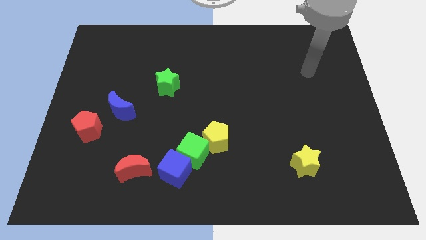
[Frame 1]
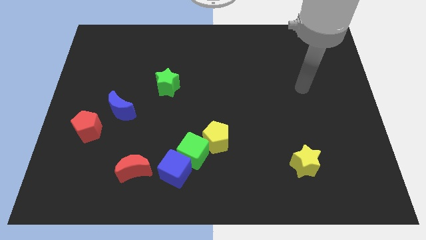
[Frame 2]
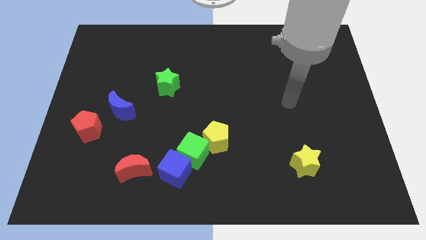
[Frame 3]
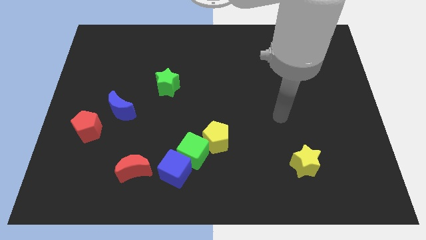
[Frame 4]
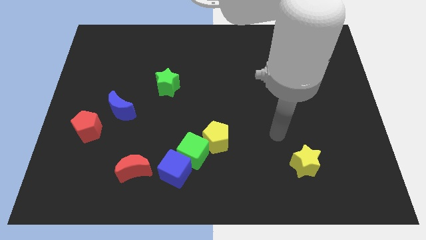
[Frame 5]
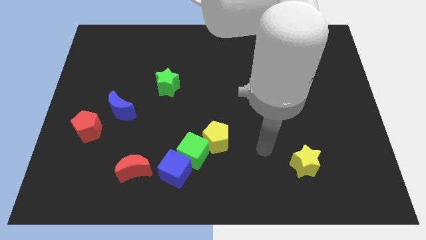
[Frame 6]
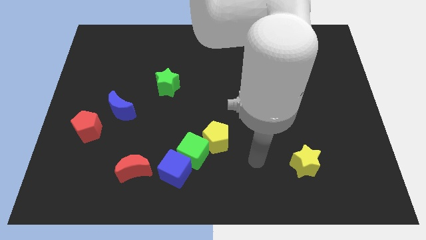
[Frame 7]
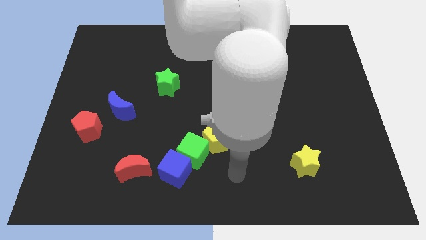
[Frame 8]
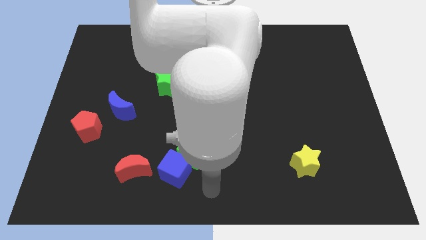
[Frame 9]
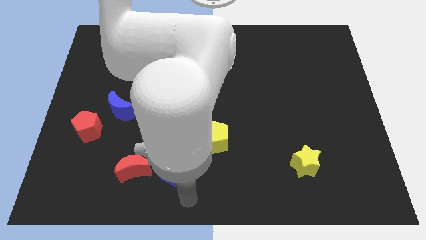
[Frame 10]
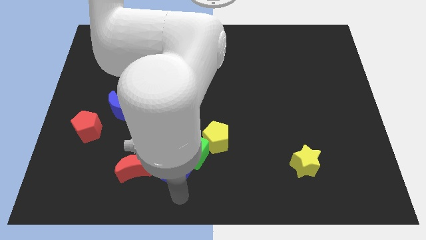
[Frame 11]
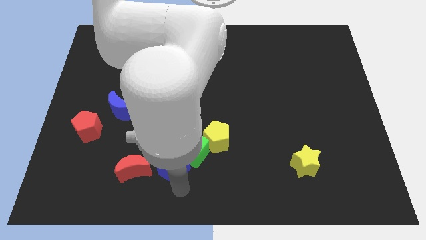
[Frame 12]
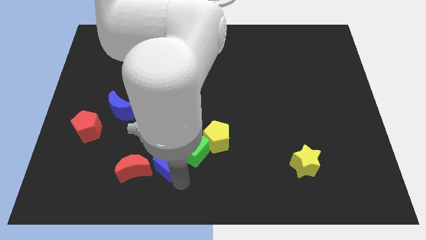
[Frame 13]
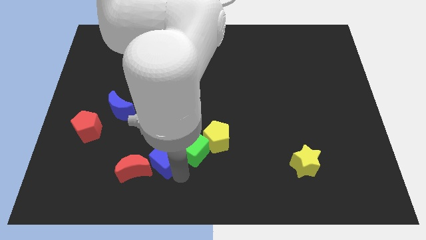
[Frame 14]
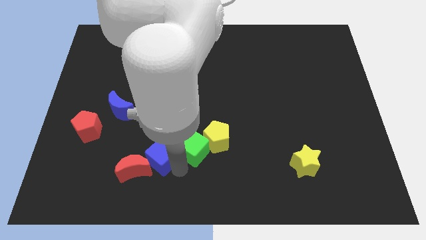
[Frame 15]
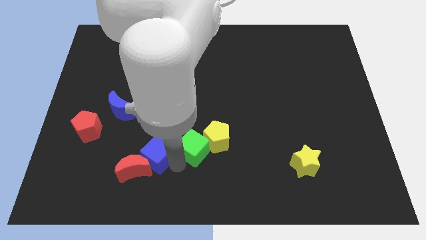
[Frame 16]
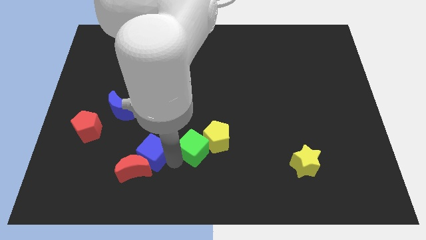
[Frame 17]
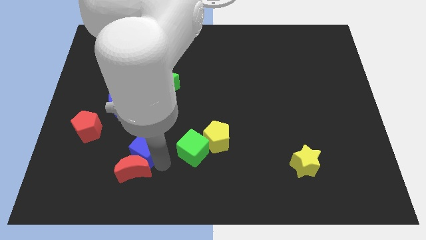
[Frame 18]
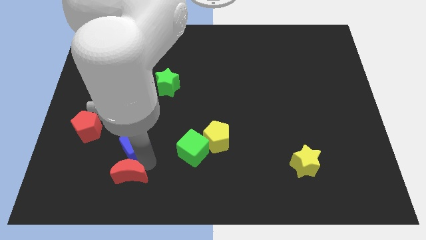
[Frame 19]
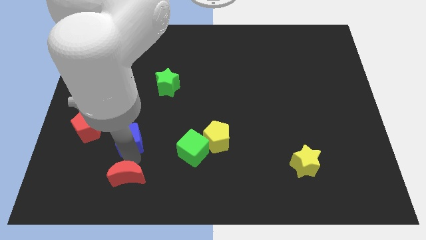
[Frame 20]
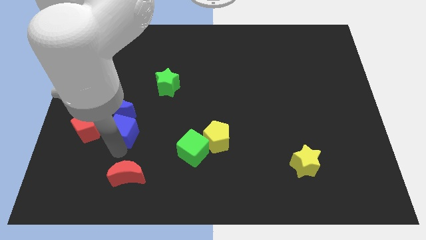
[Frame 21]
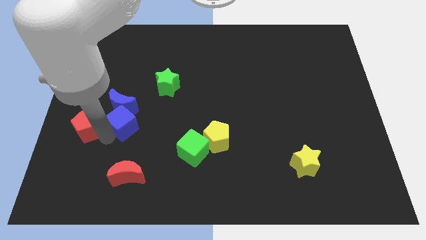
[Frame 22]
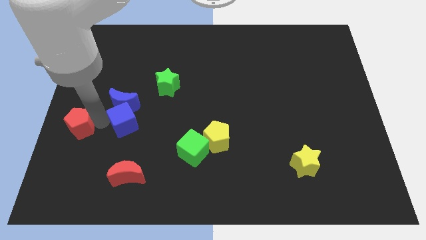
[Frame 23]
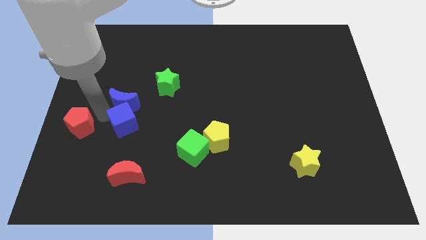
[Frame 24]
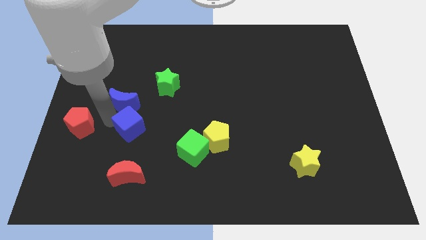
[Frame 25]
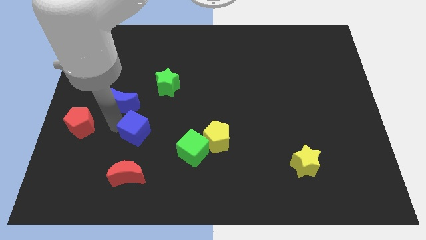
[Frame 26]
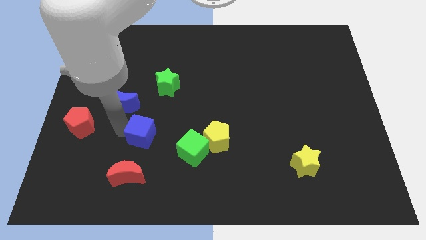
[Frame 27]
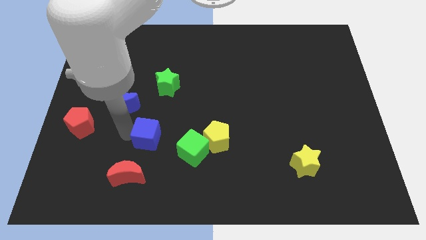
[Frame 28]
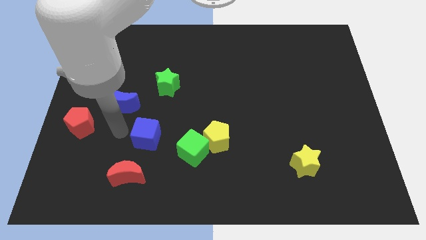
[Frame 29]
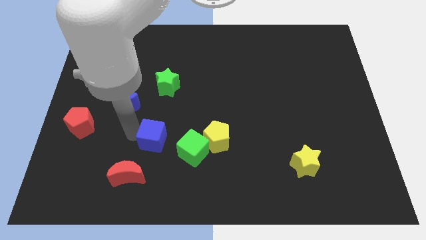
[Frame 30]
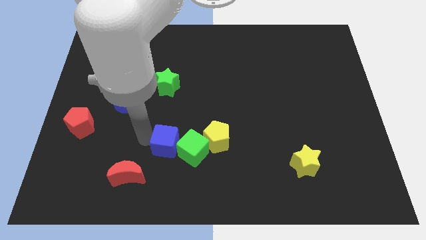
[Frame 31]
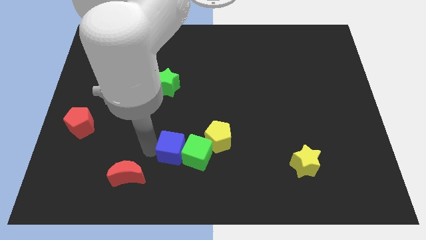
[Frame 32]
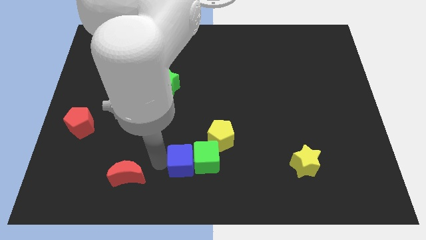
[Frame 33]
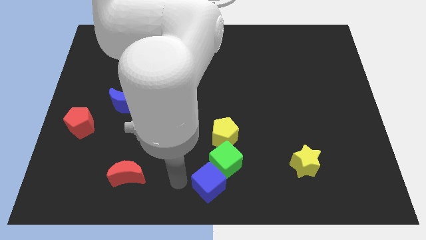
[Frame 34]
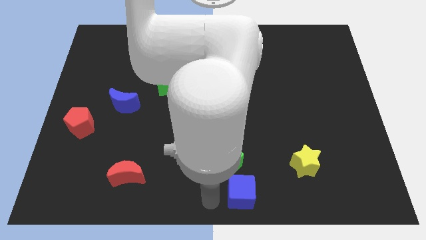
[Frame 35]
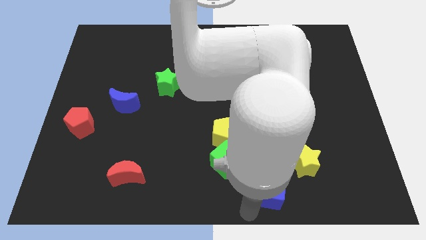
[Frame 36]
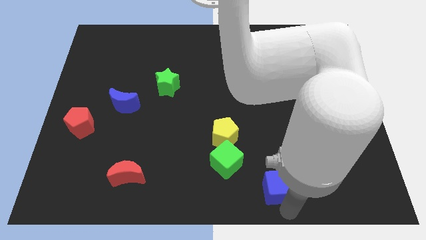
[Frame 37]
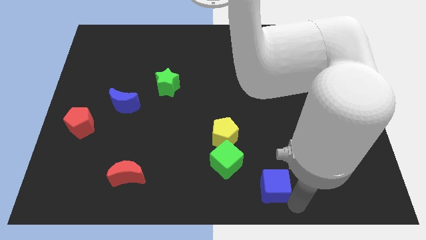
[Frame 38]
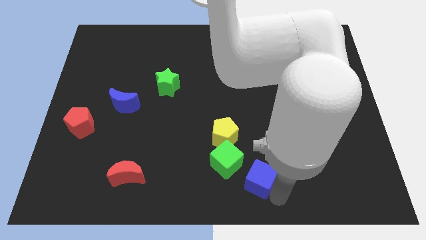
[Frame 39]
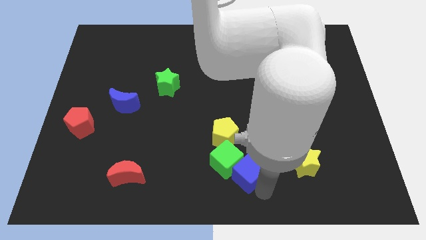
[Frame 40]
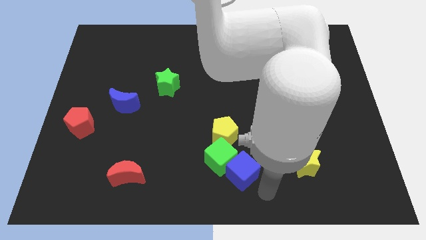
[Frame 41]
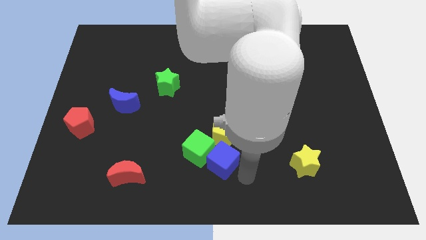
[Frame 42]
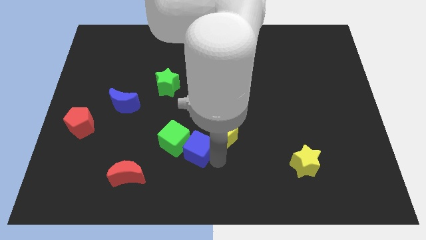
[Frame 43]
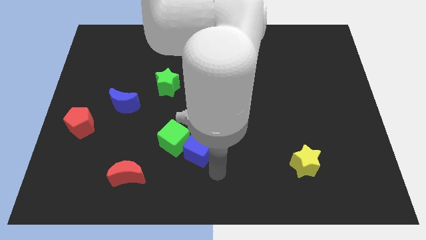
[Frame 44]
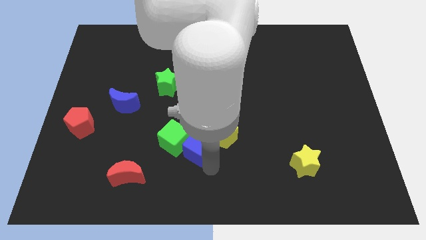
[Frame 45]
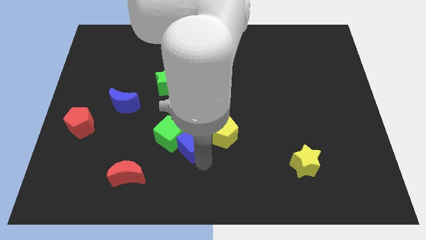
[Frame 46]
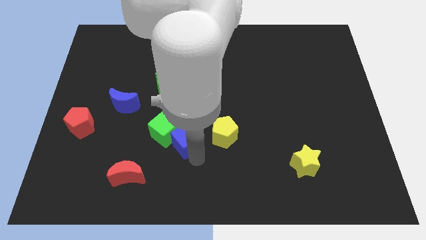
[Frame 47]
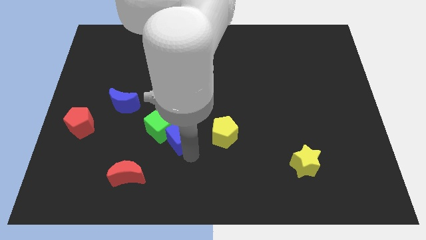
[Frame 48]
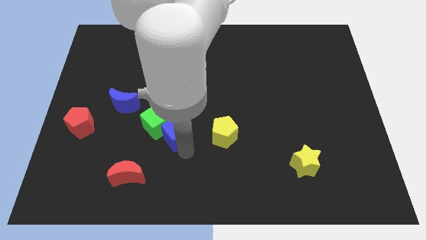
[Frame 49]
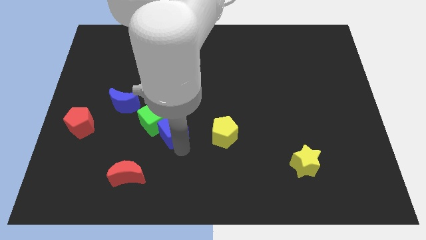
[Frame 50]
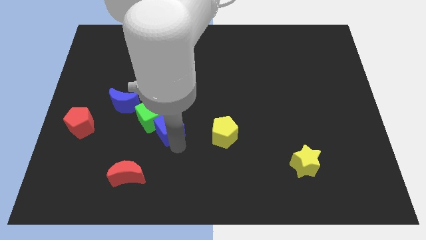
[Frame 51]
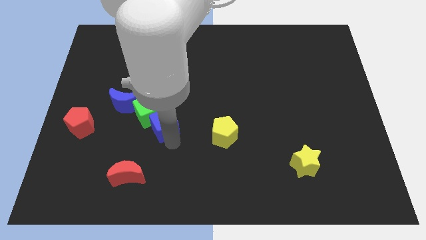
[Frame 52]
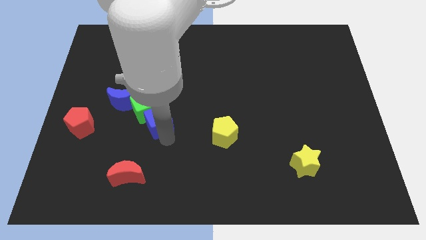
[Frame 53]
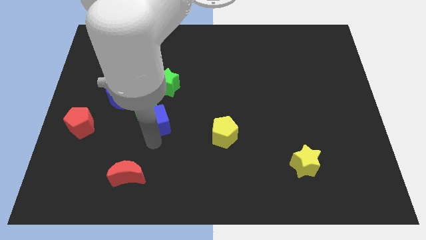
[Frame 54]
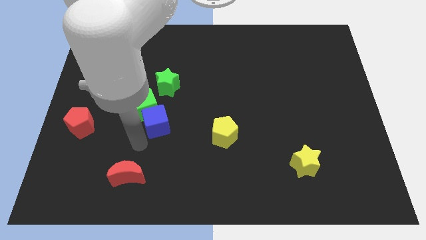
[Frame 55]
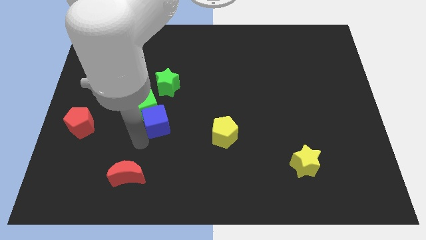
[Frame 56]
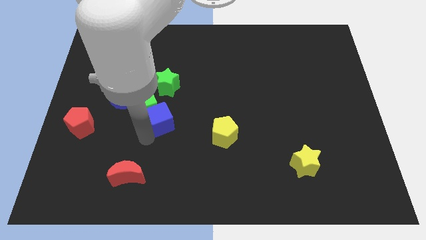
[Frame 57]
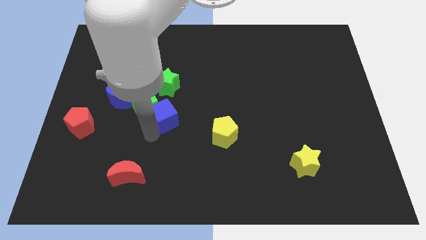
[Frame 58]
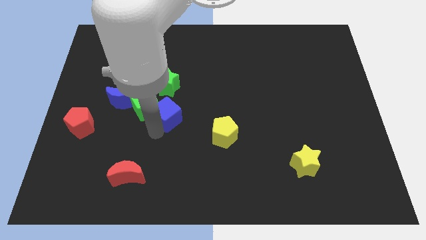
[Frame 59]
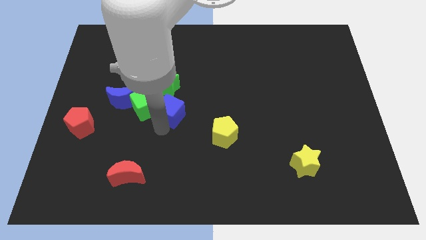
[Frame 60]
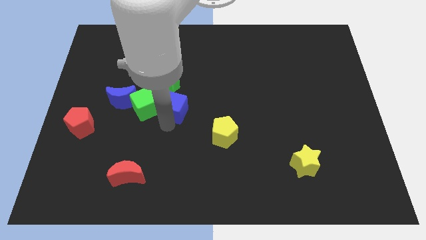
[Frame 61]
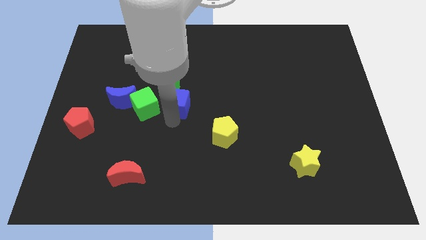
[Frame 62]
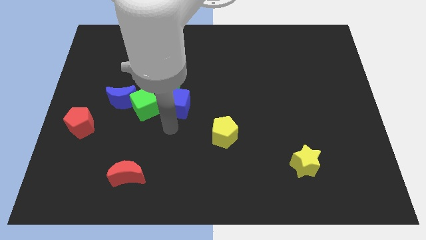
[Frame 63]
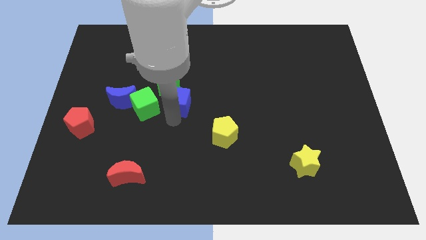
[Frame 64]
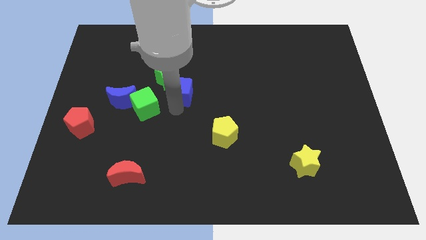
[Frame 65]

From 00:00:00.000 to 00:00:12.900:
move the blue cube up

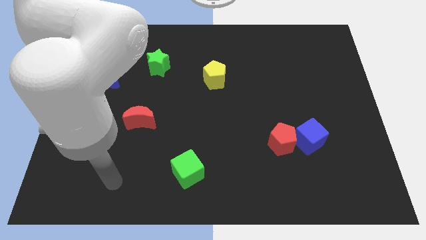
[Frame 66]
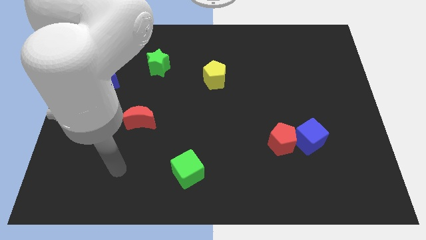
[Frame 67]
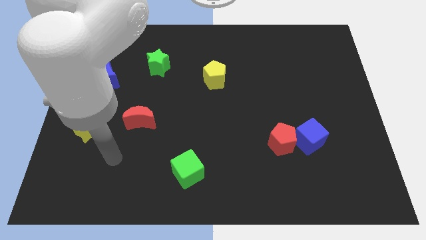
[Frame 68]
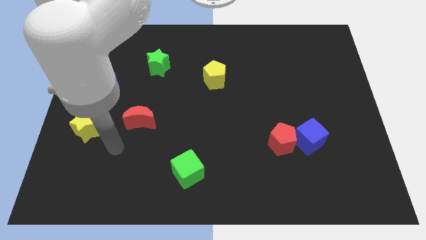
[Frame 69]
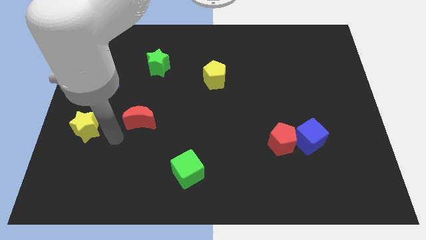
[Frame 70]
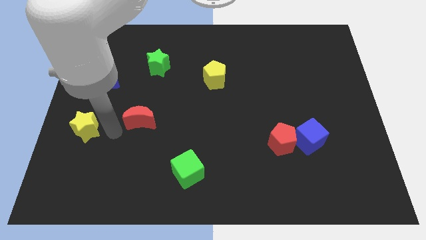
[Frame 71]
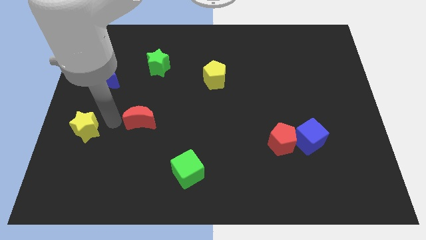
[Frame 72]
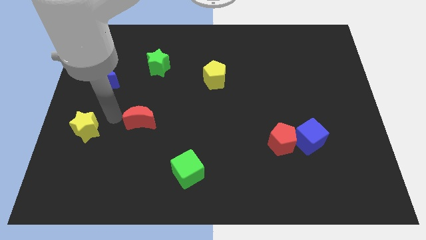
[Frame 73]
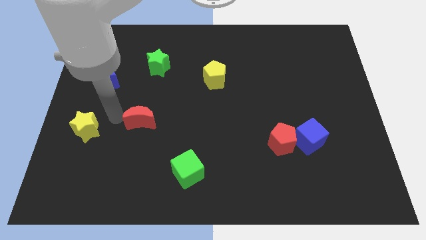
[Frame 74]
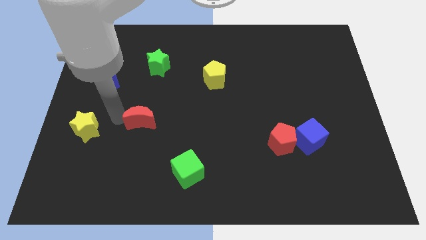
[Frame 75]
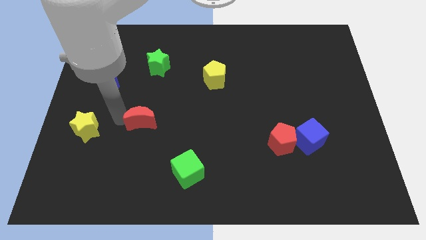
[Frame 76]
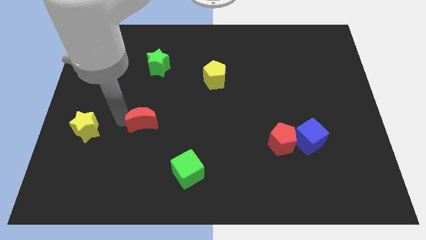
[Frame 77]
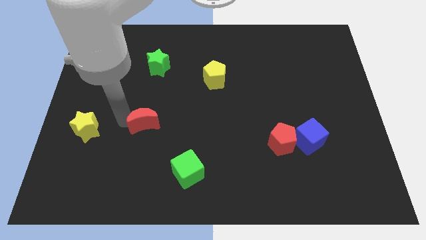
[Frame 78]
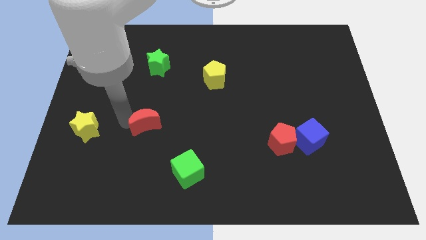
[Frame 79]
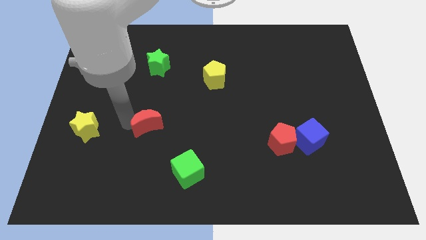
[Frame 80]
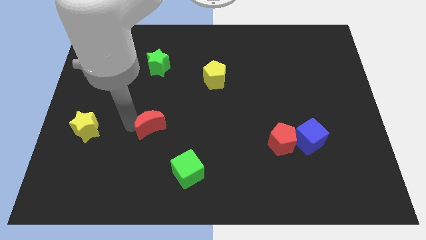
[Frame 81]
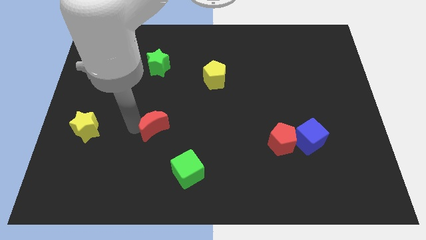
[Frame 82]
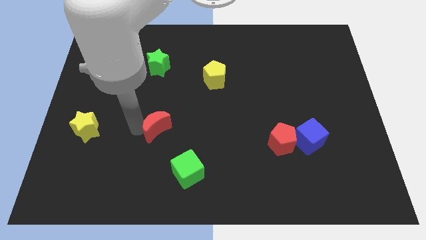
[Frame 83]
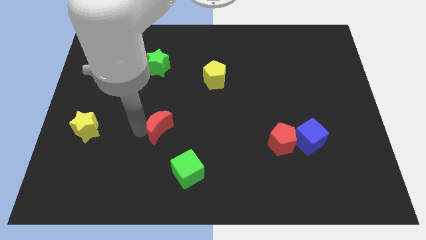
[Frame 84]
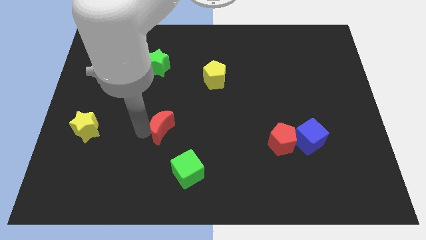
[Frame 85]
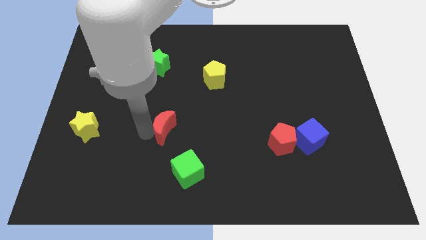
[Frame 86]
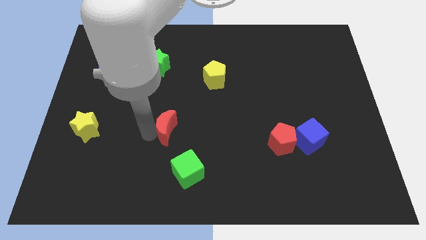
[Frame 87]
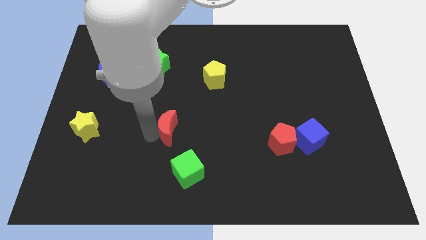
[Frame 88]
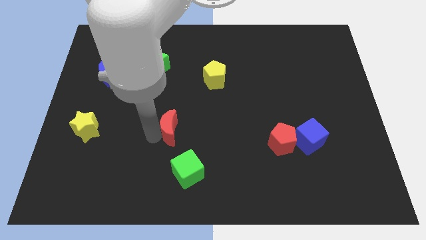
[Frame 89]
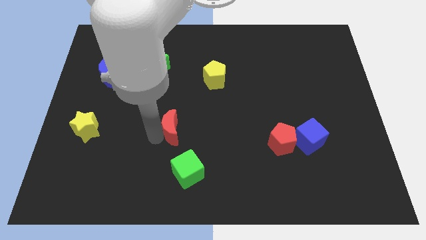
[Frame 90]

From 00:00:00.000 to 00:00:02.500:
move the red moon slightly to the right
